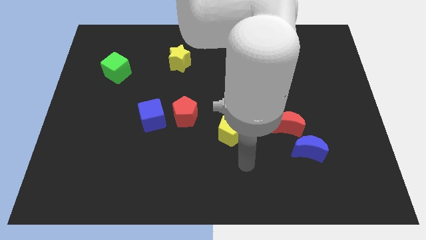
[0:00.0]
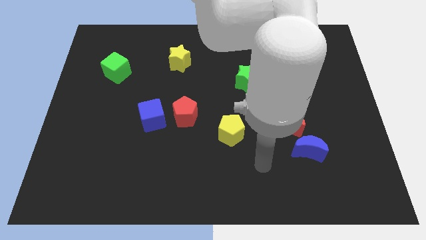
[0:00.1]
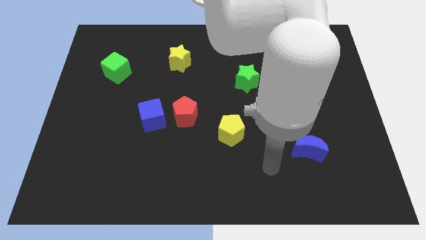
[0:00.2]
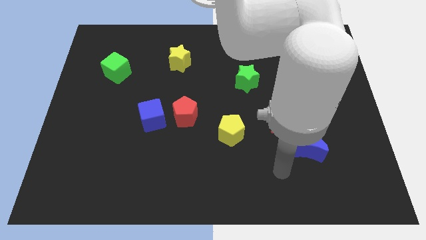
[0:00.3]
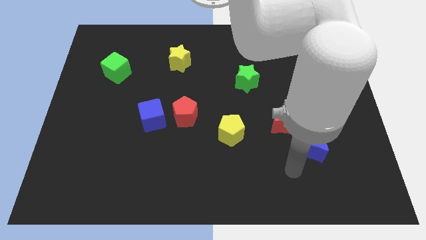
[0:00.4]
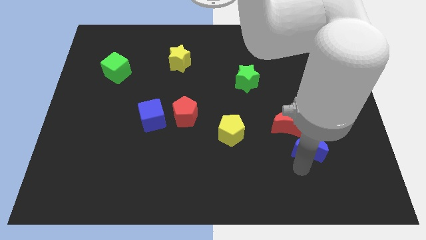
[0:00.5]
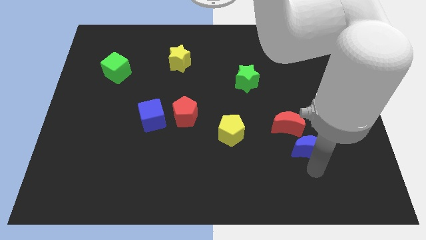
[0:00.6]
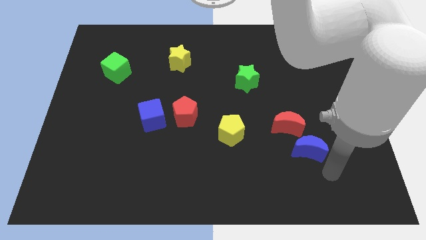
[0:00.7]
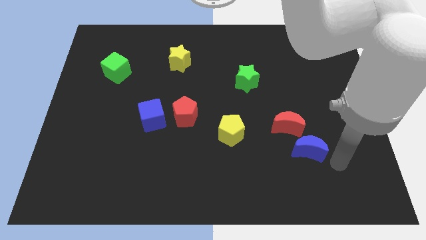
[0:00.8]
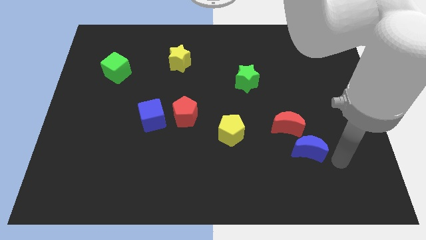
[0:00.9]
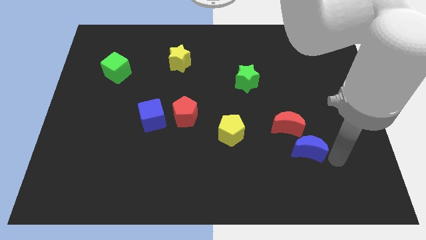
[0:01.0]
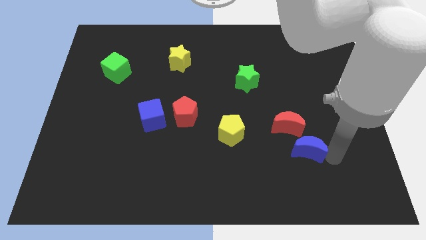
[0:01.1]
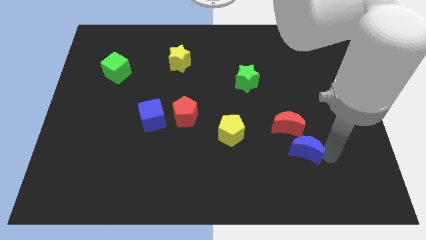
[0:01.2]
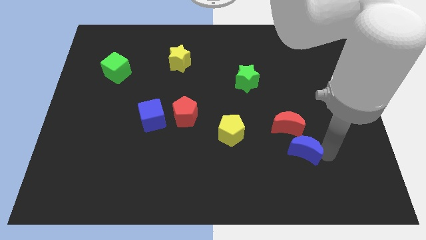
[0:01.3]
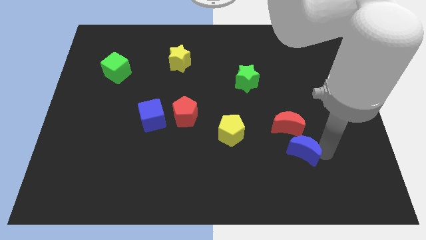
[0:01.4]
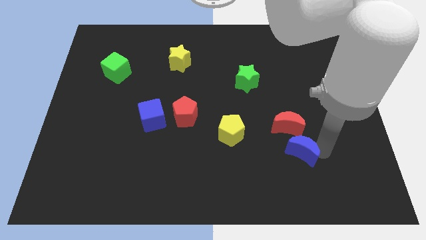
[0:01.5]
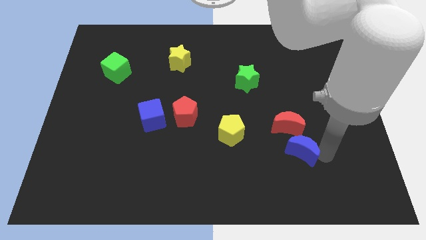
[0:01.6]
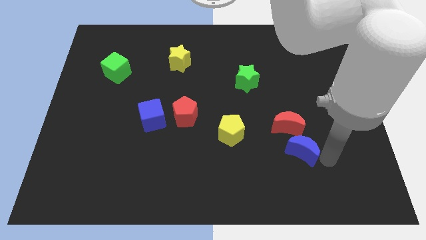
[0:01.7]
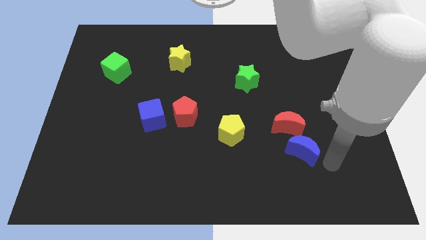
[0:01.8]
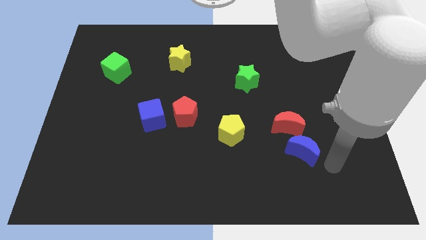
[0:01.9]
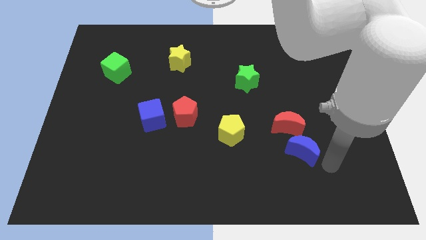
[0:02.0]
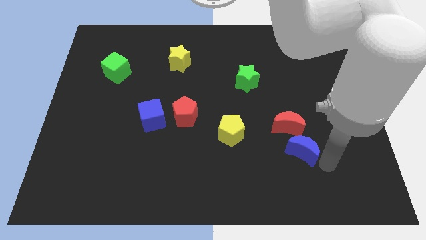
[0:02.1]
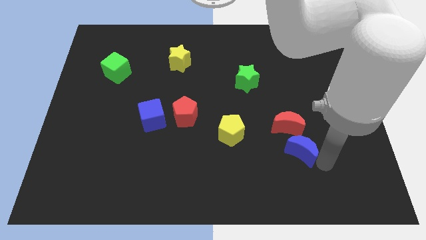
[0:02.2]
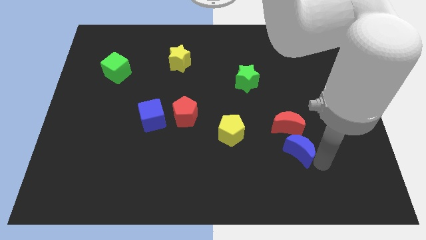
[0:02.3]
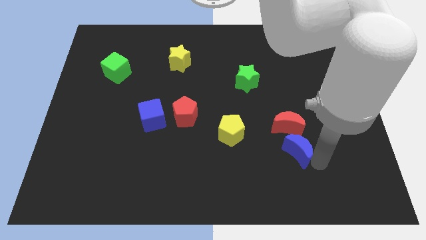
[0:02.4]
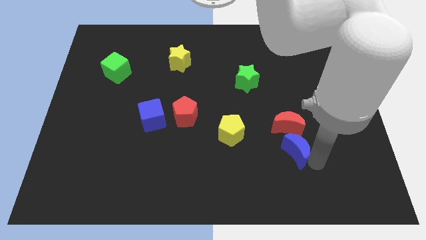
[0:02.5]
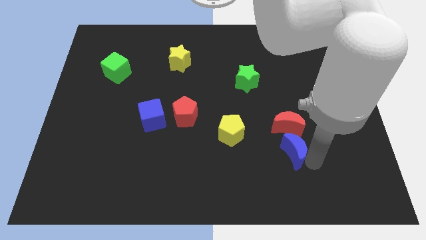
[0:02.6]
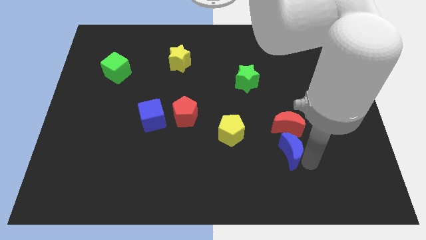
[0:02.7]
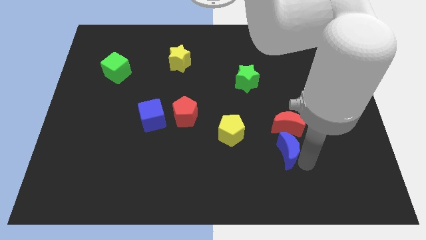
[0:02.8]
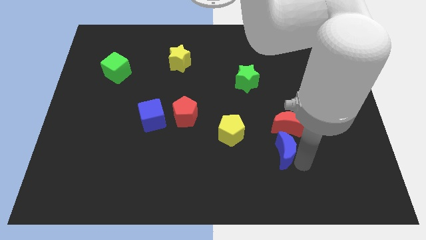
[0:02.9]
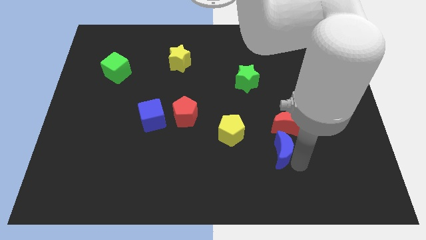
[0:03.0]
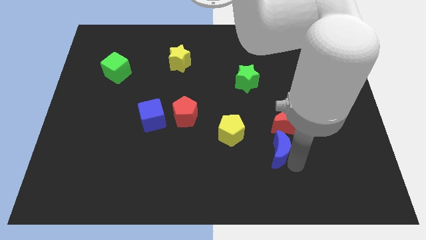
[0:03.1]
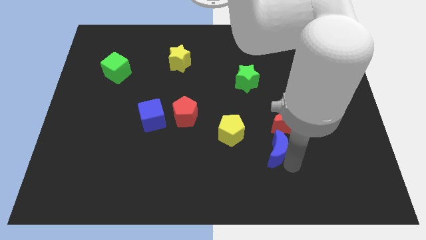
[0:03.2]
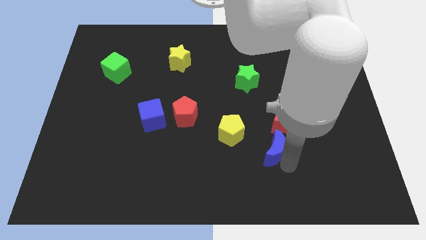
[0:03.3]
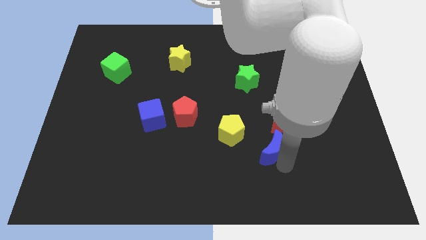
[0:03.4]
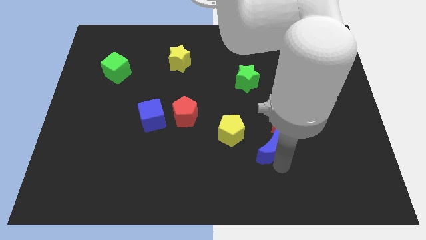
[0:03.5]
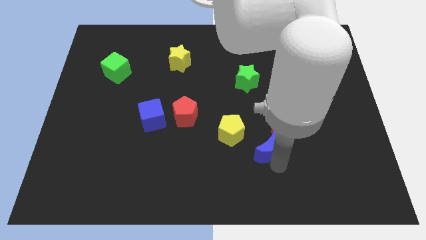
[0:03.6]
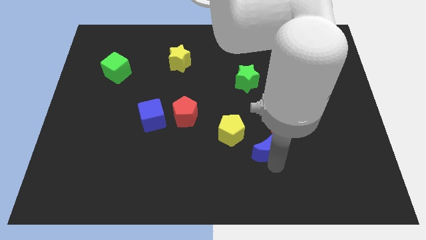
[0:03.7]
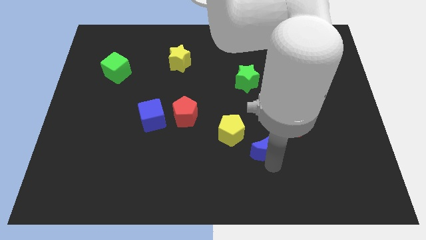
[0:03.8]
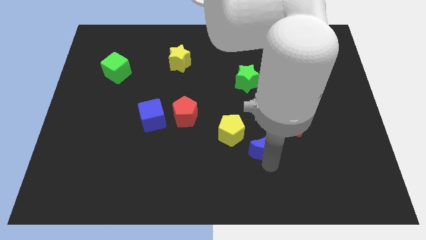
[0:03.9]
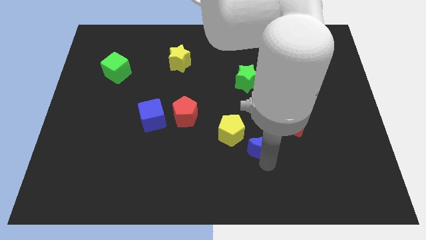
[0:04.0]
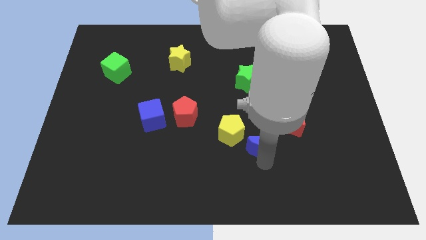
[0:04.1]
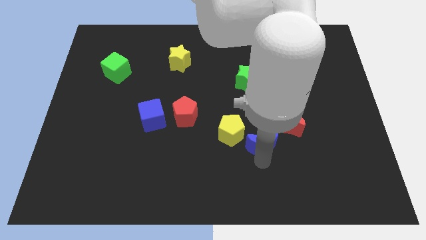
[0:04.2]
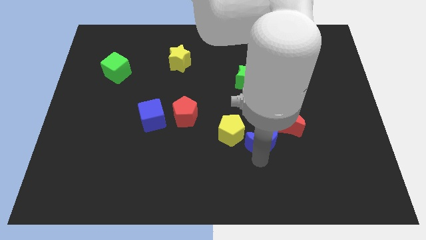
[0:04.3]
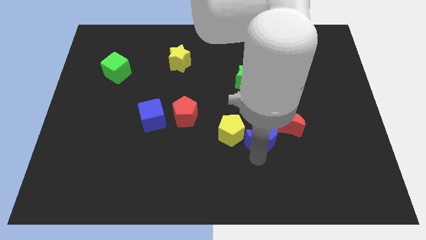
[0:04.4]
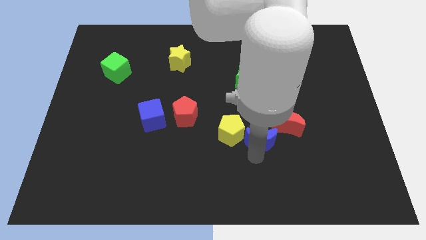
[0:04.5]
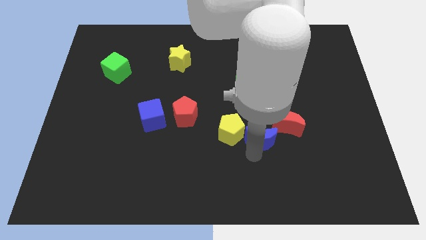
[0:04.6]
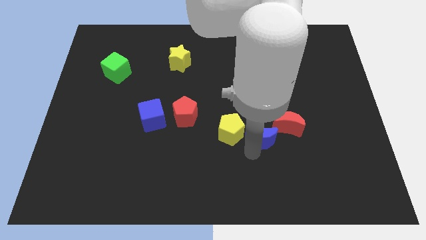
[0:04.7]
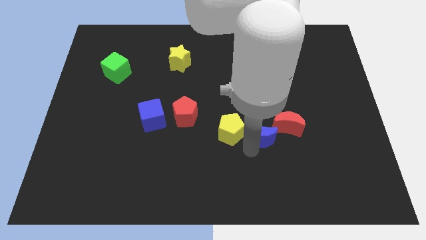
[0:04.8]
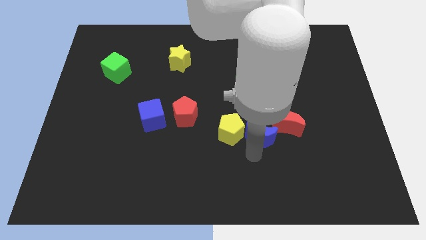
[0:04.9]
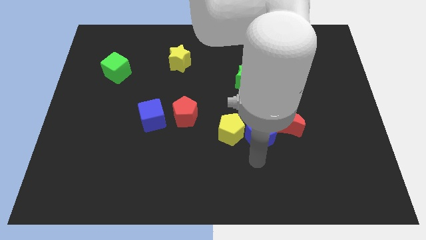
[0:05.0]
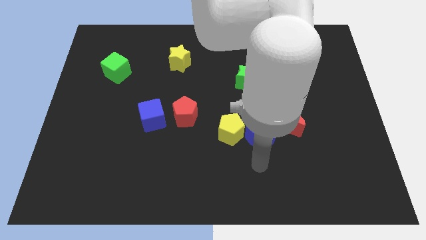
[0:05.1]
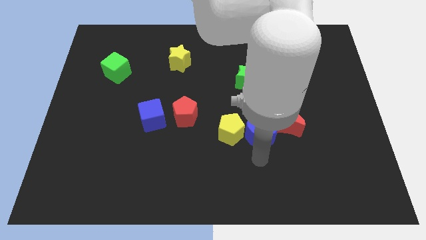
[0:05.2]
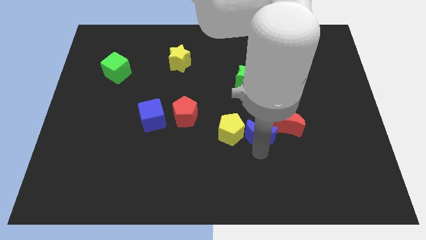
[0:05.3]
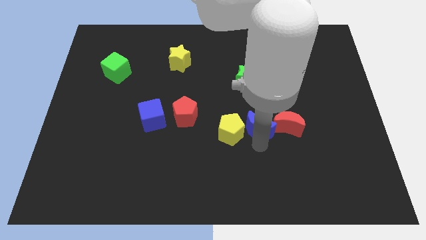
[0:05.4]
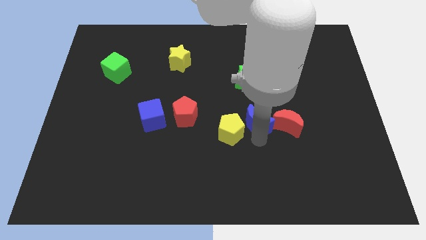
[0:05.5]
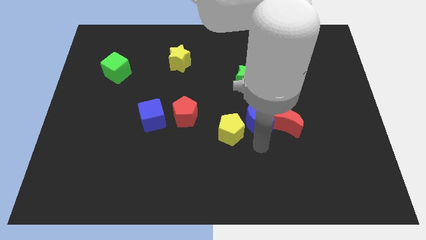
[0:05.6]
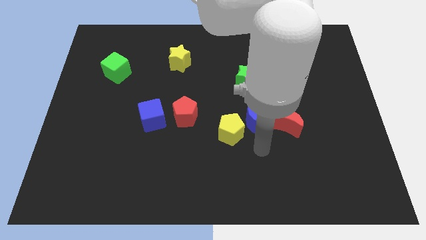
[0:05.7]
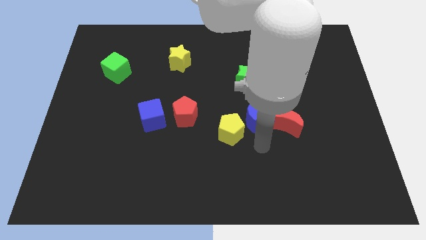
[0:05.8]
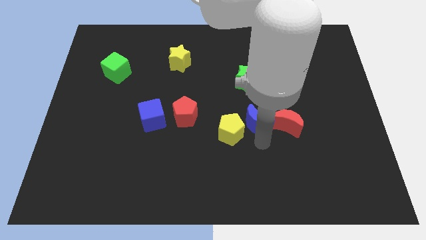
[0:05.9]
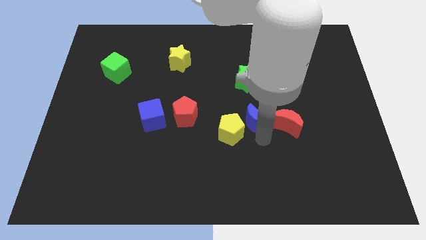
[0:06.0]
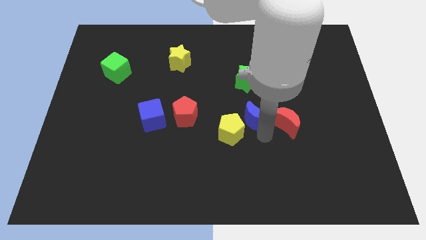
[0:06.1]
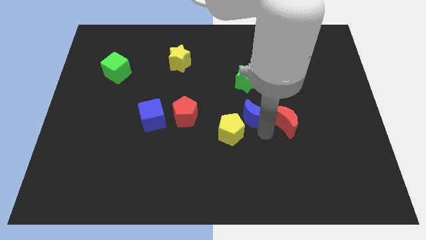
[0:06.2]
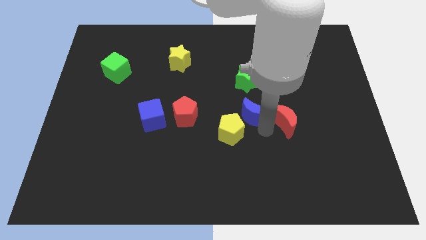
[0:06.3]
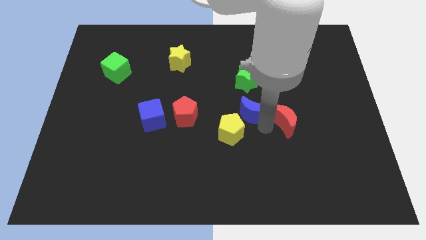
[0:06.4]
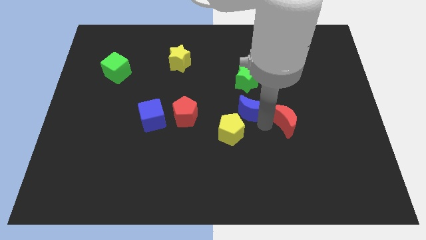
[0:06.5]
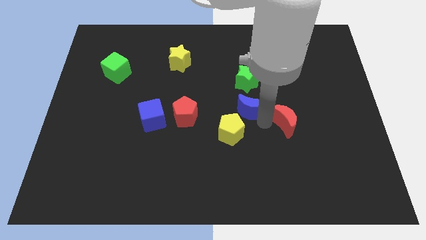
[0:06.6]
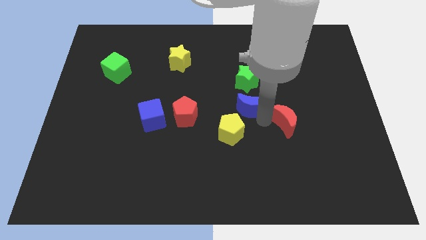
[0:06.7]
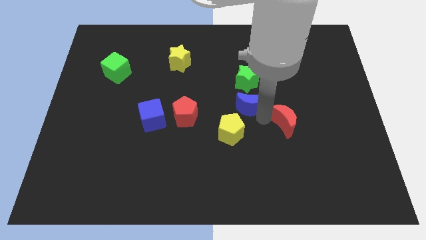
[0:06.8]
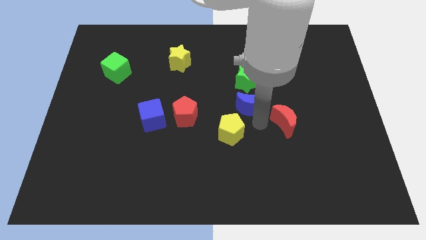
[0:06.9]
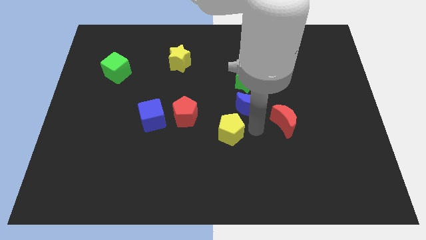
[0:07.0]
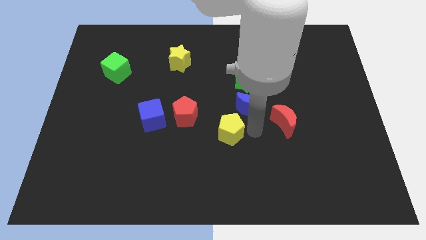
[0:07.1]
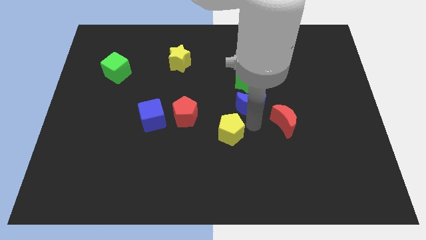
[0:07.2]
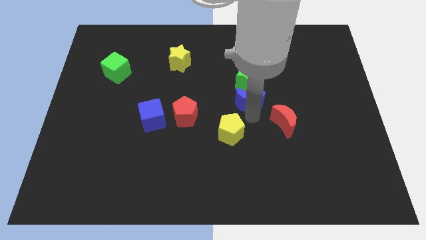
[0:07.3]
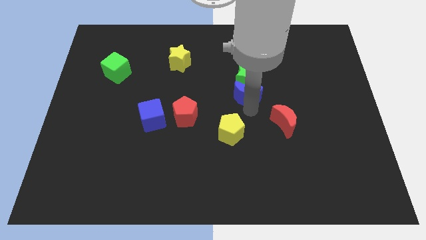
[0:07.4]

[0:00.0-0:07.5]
push the blue moon close to the green star
